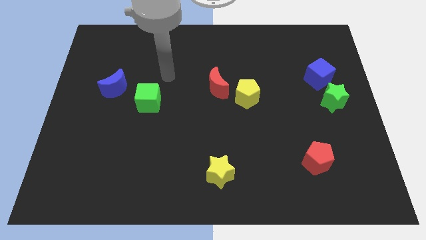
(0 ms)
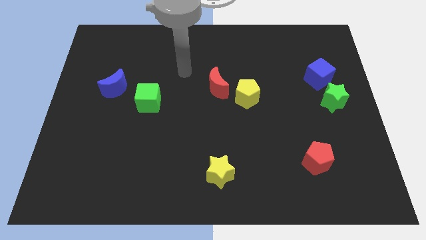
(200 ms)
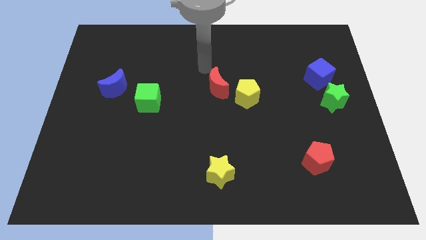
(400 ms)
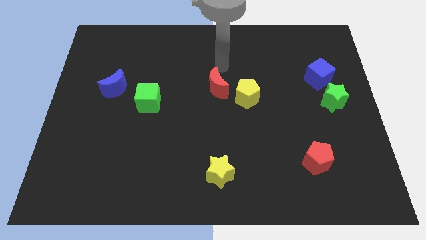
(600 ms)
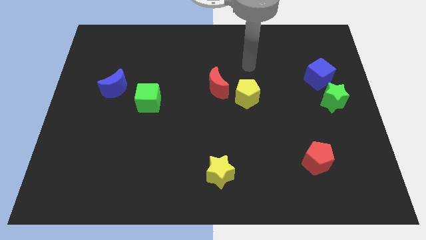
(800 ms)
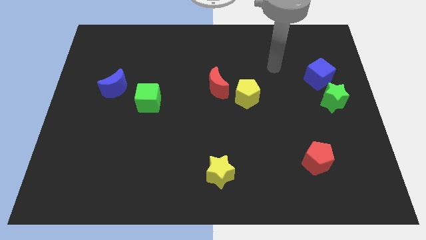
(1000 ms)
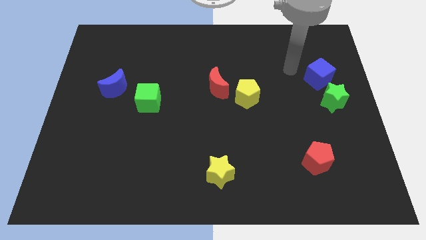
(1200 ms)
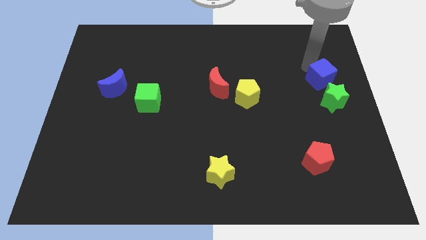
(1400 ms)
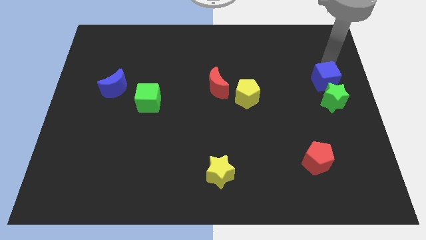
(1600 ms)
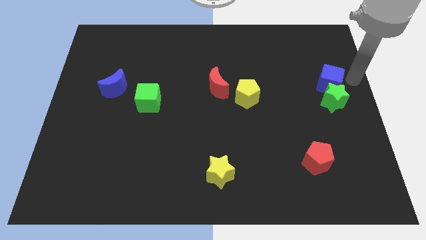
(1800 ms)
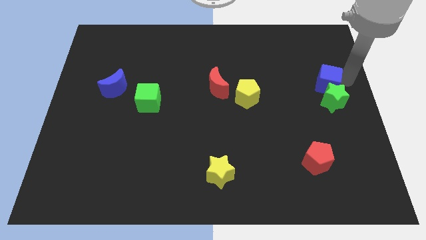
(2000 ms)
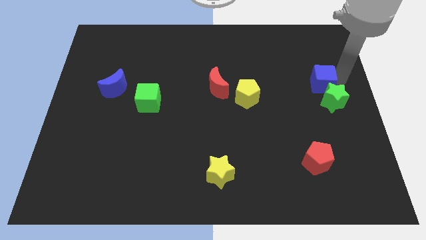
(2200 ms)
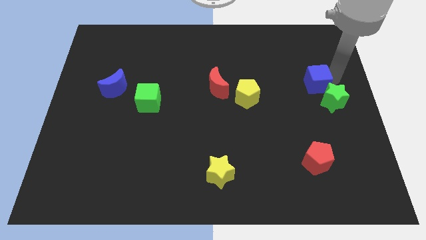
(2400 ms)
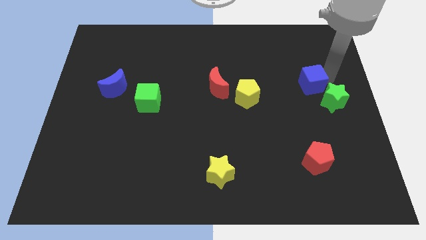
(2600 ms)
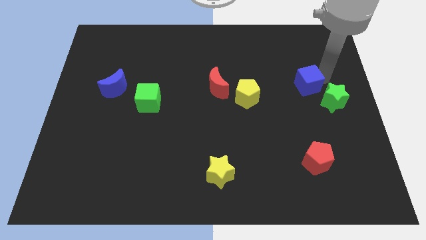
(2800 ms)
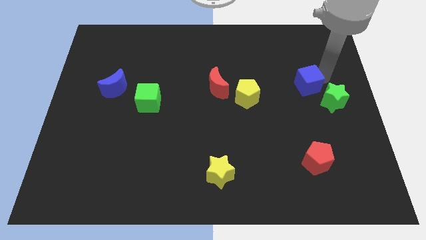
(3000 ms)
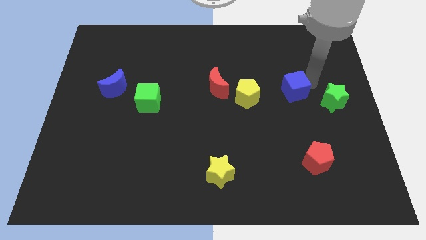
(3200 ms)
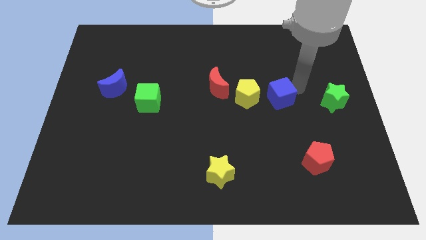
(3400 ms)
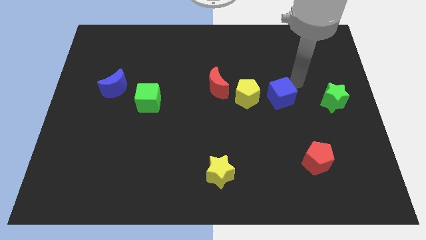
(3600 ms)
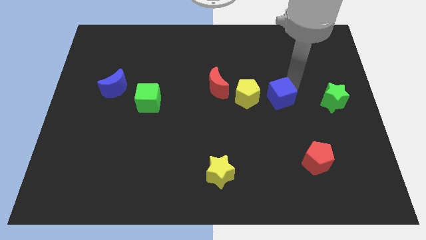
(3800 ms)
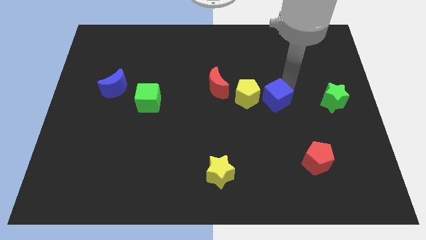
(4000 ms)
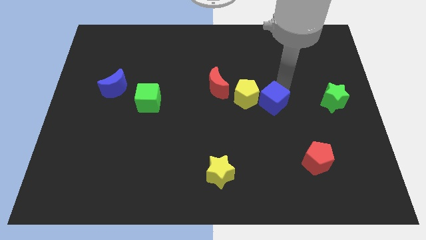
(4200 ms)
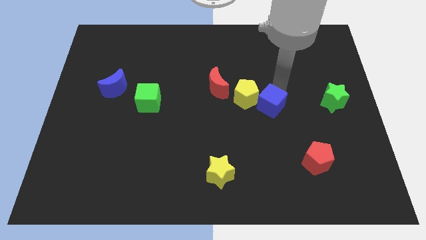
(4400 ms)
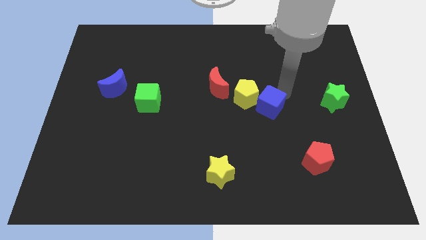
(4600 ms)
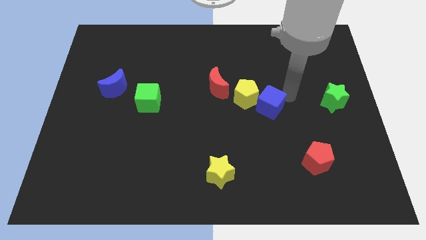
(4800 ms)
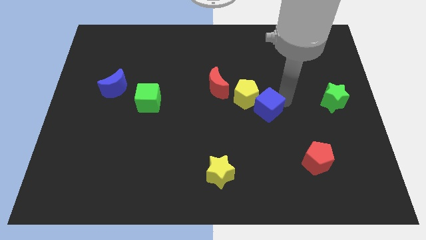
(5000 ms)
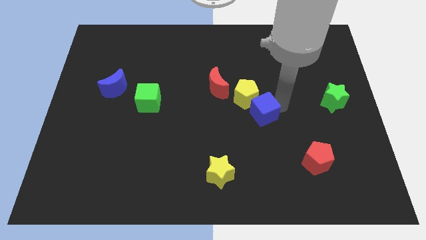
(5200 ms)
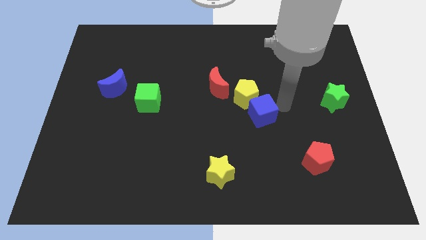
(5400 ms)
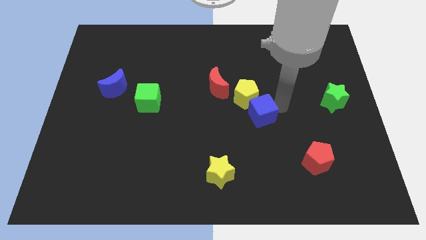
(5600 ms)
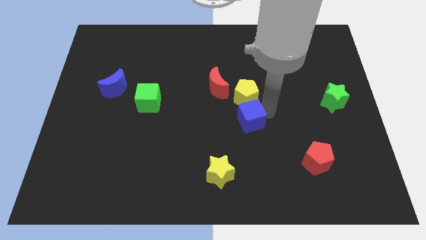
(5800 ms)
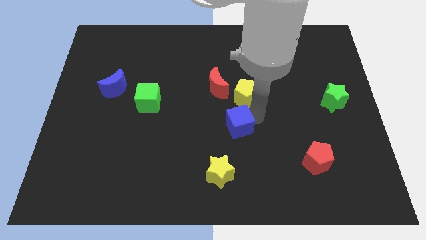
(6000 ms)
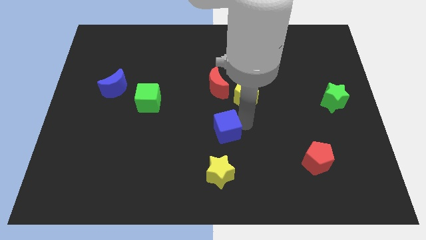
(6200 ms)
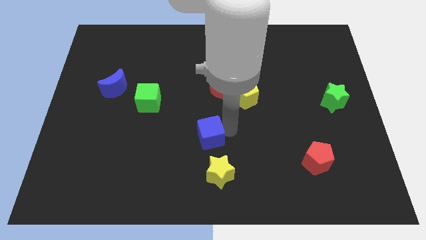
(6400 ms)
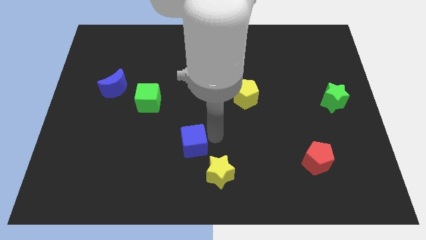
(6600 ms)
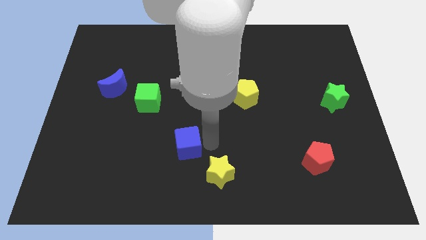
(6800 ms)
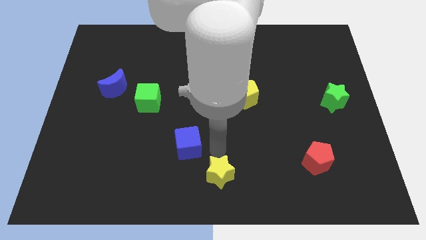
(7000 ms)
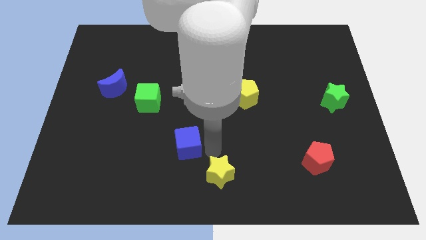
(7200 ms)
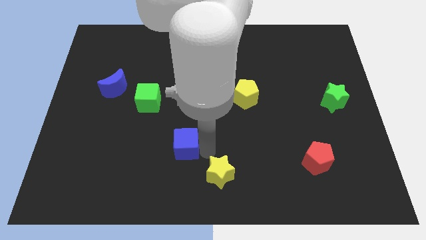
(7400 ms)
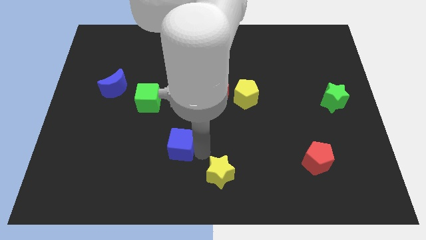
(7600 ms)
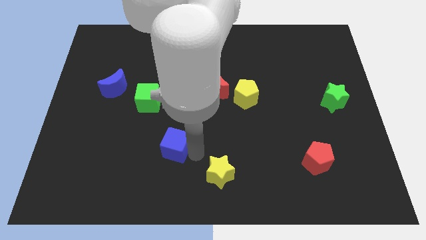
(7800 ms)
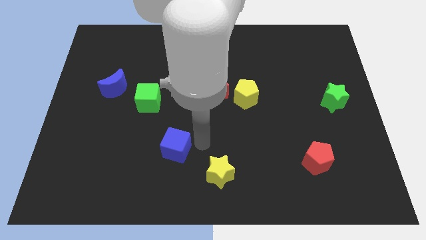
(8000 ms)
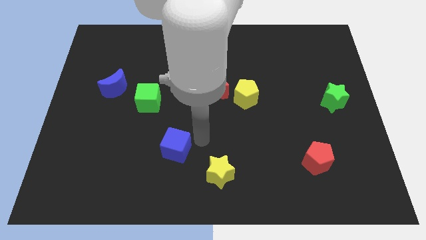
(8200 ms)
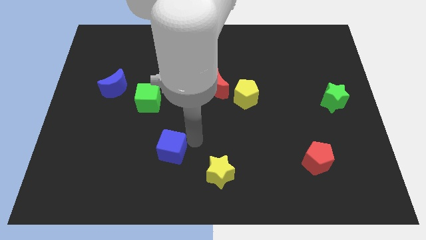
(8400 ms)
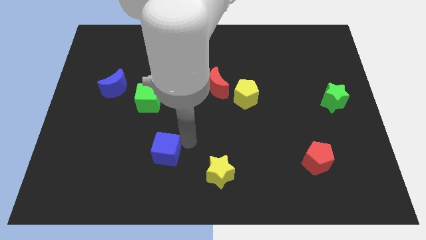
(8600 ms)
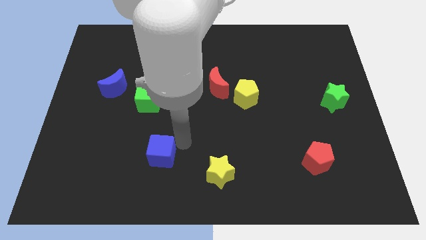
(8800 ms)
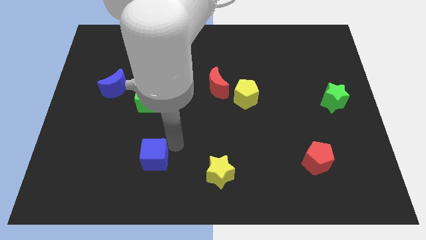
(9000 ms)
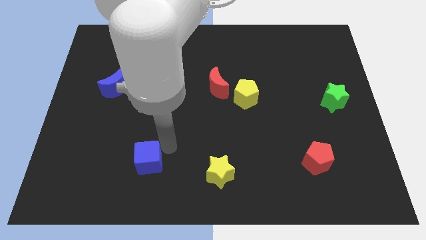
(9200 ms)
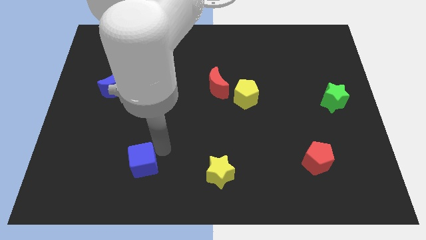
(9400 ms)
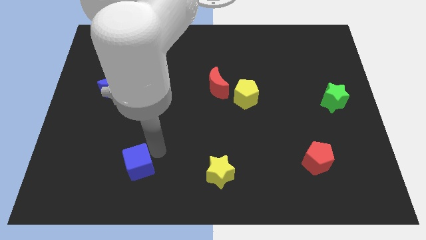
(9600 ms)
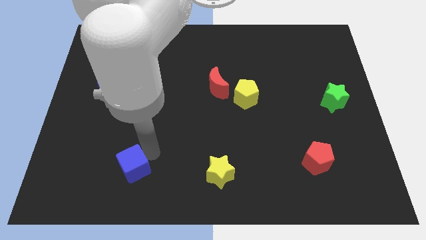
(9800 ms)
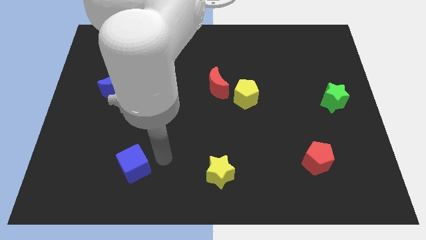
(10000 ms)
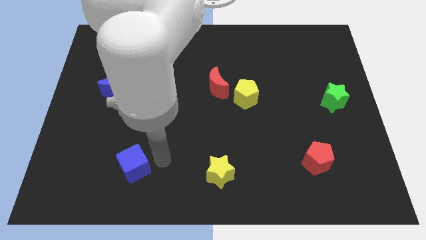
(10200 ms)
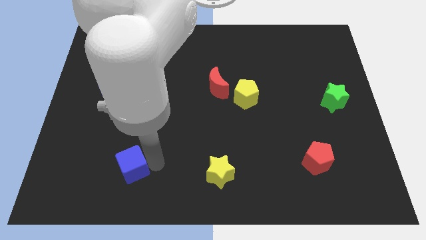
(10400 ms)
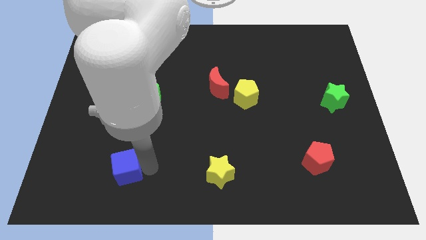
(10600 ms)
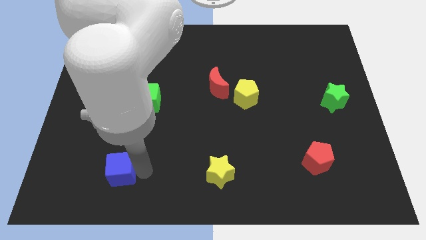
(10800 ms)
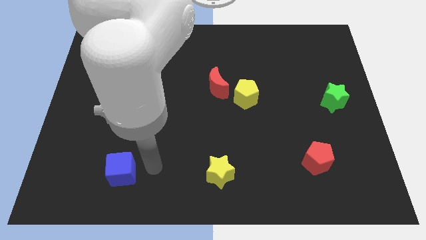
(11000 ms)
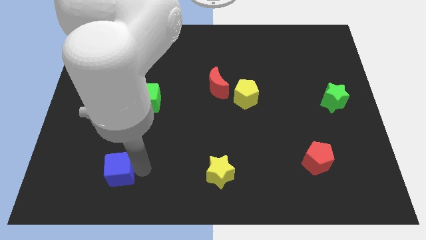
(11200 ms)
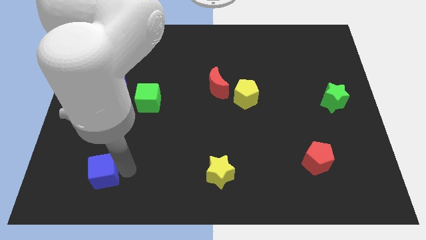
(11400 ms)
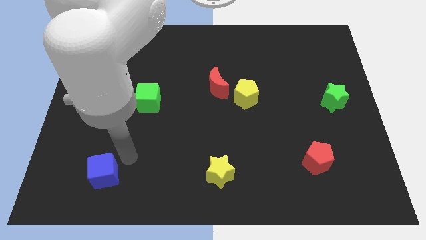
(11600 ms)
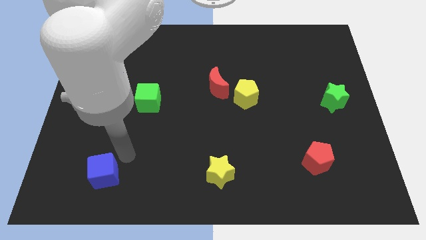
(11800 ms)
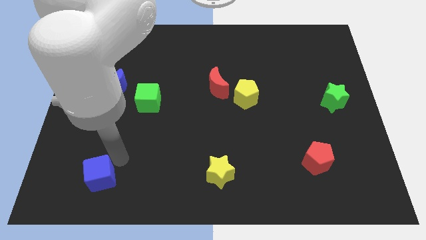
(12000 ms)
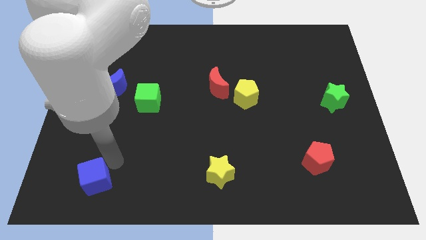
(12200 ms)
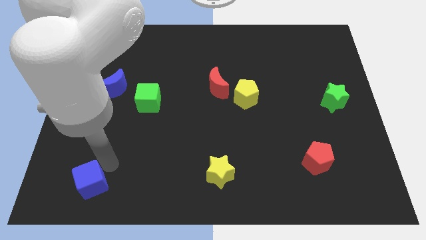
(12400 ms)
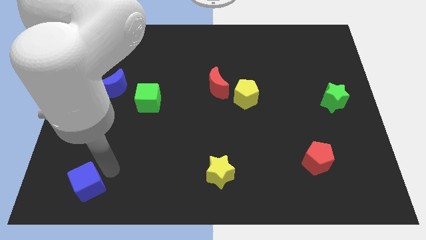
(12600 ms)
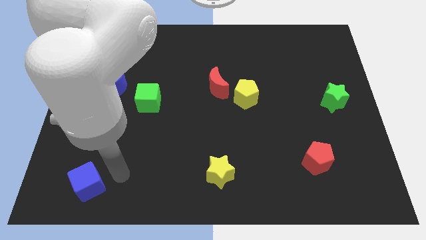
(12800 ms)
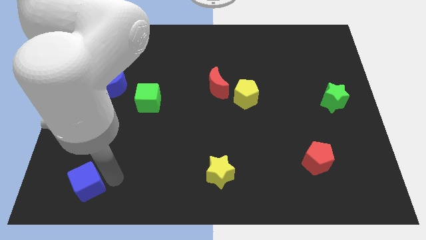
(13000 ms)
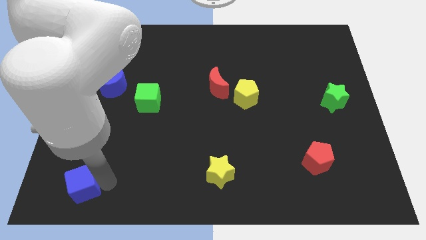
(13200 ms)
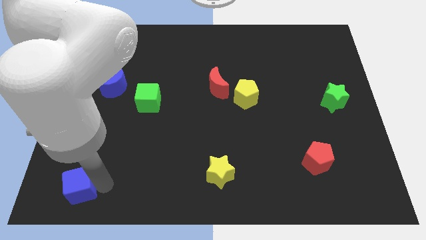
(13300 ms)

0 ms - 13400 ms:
move the blue cube to the bottom left
